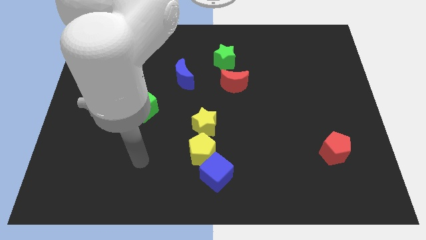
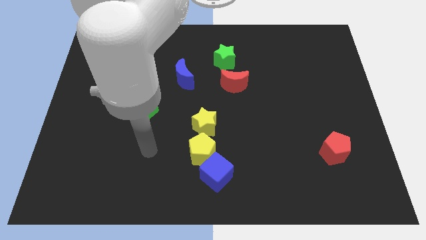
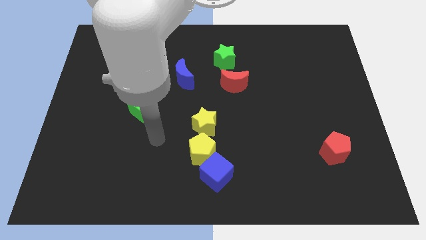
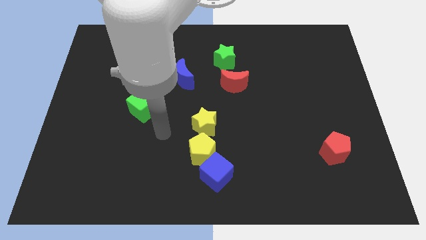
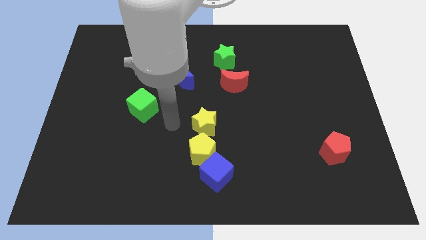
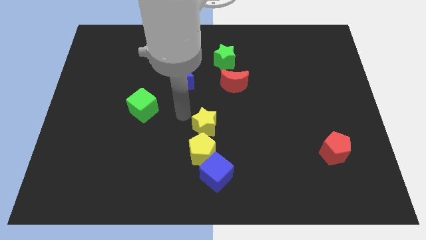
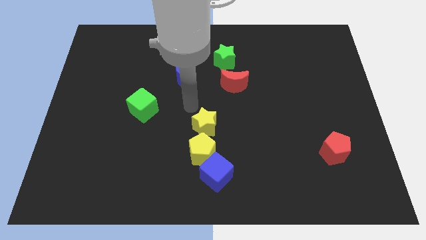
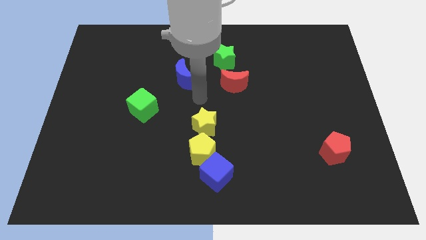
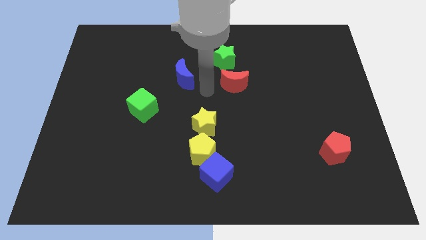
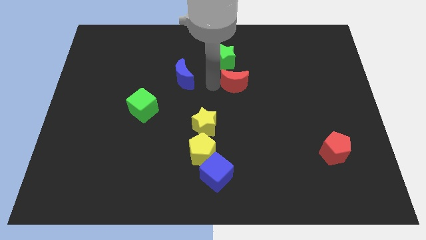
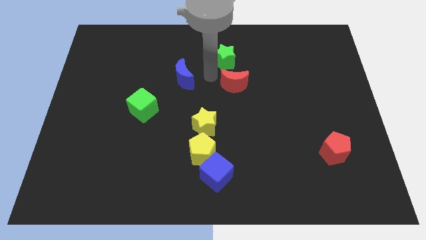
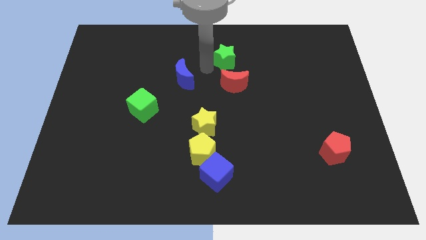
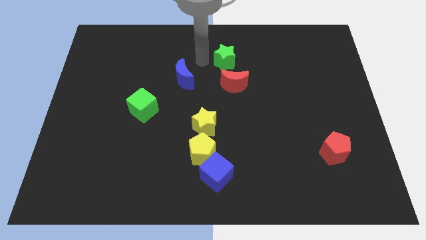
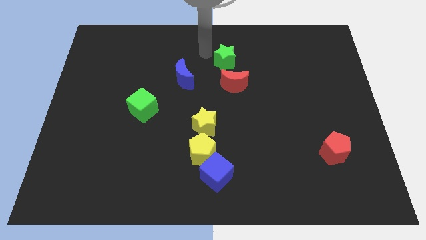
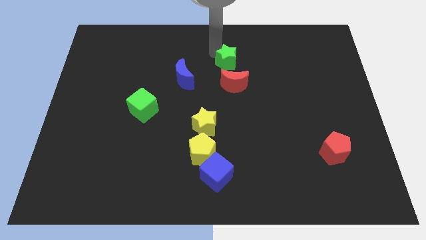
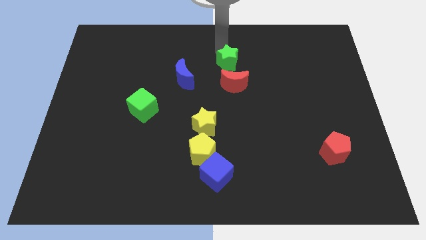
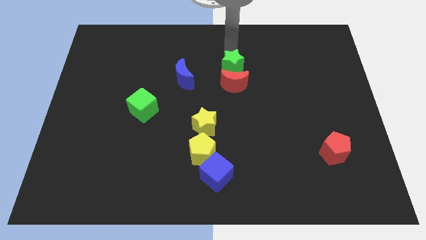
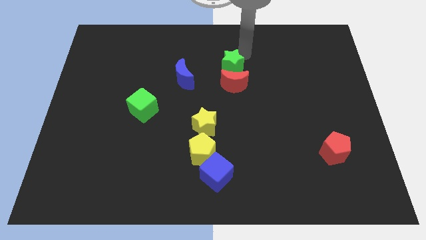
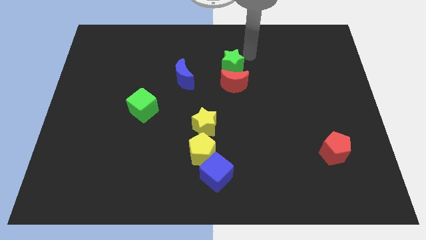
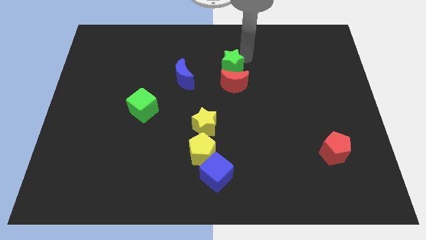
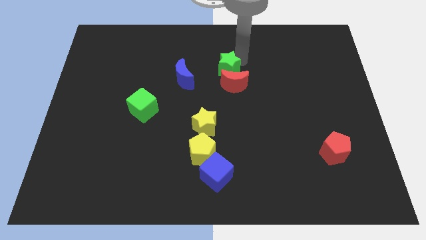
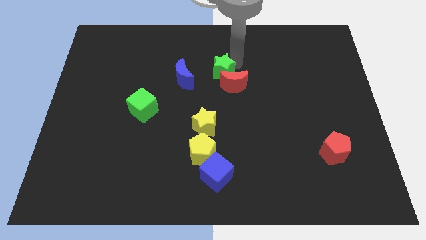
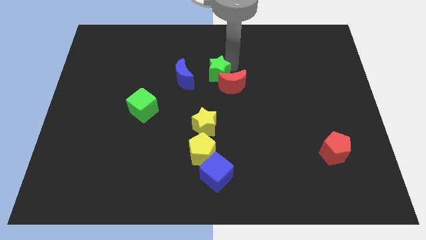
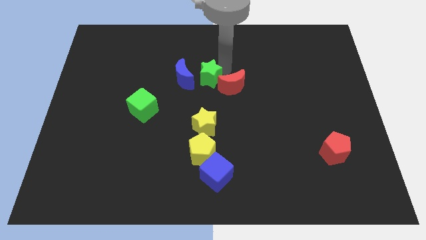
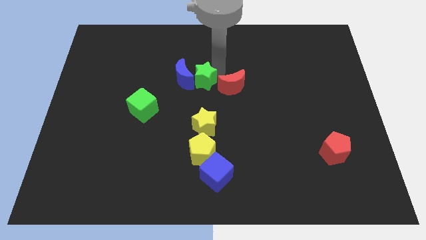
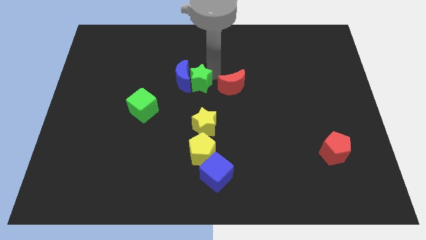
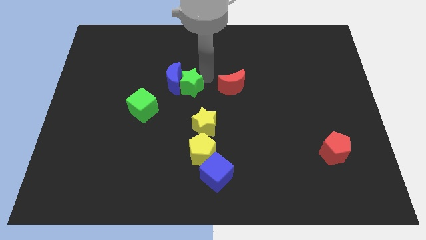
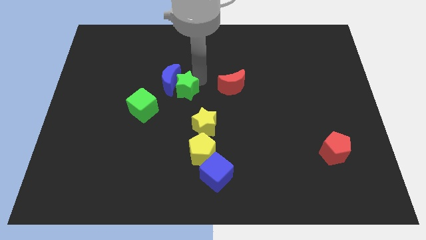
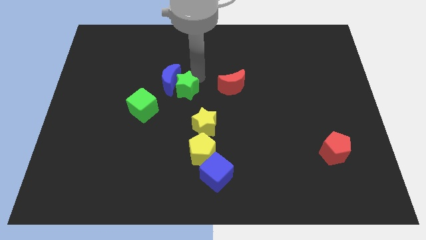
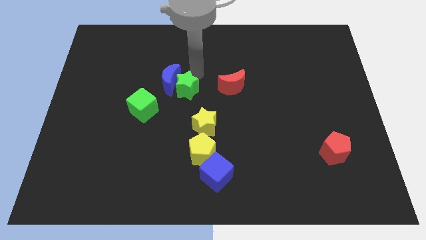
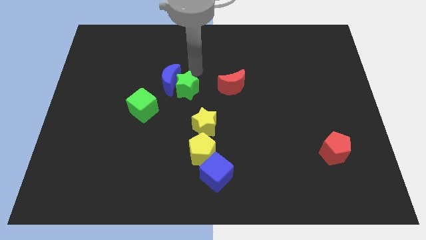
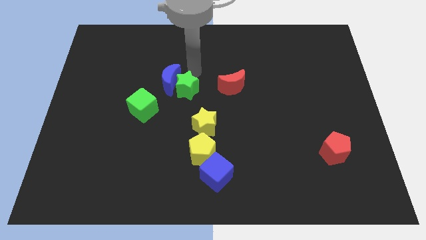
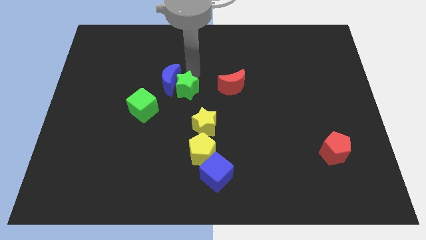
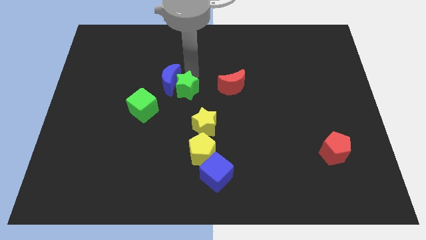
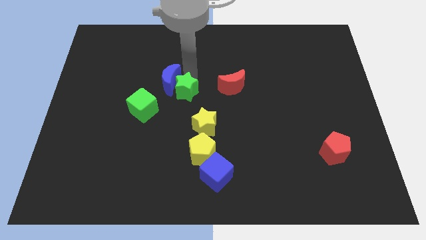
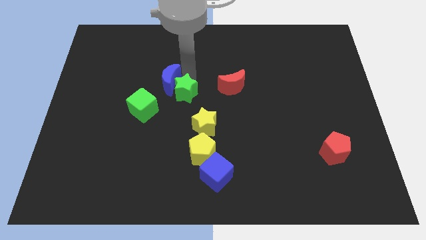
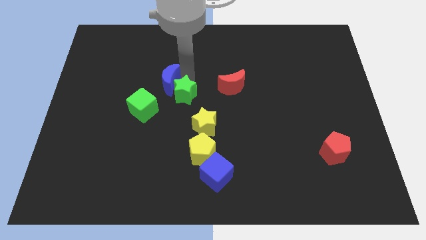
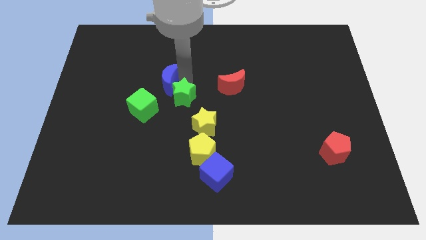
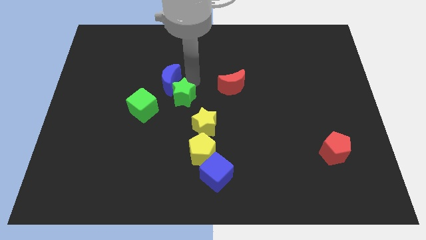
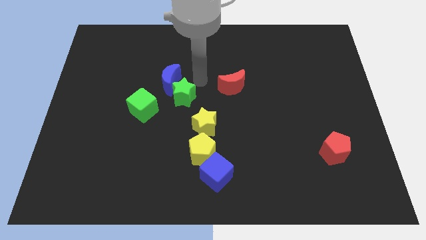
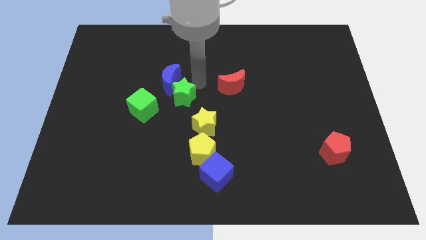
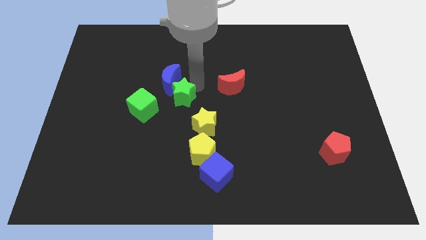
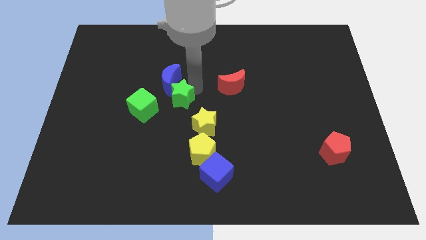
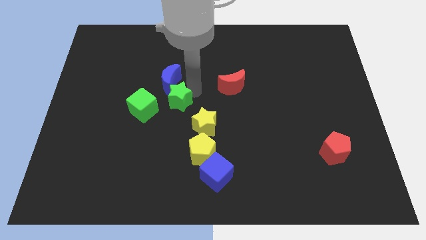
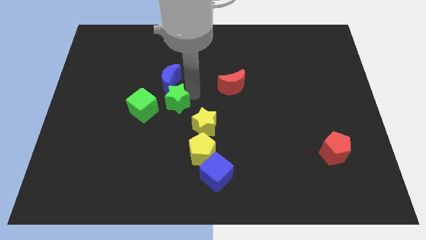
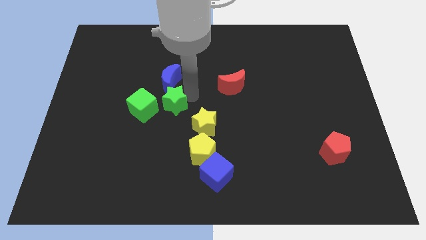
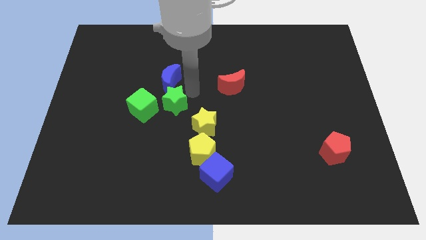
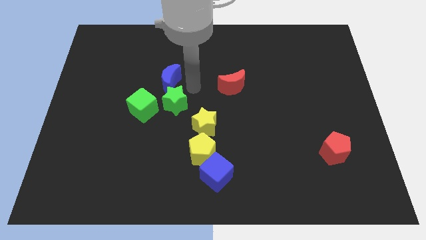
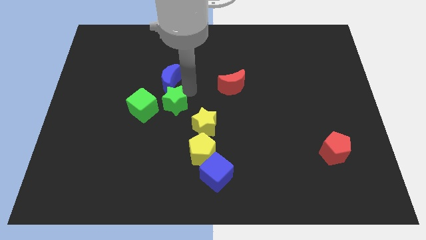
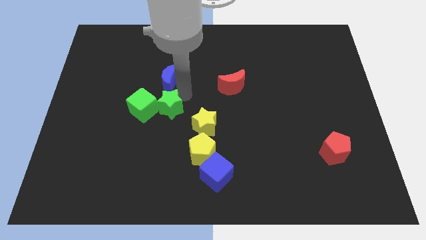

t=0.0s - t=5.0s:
push the green star downwards and to the left diagonally

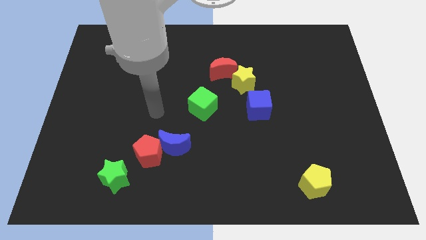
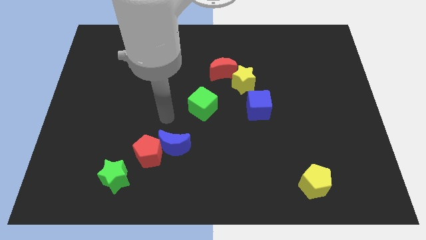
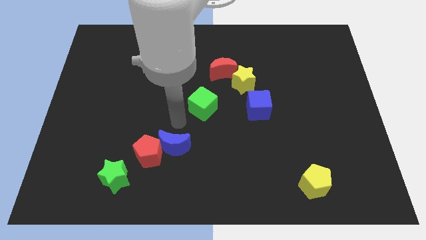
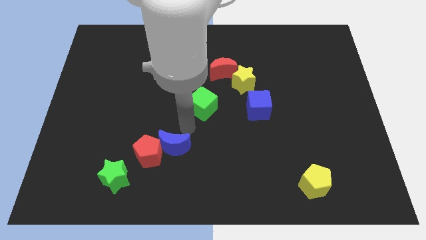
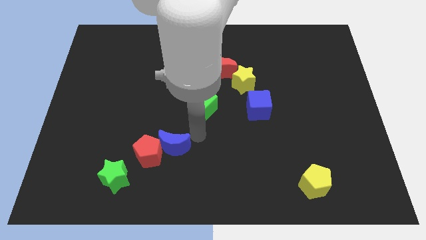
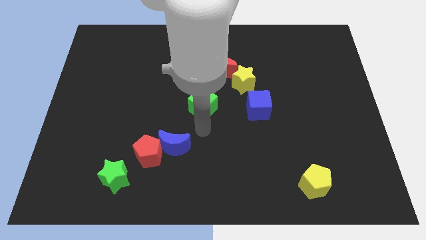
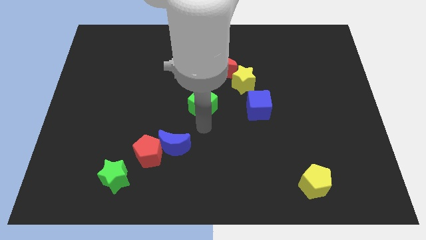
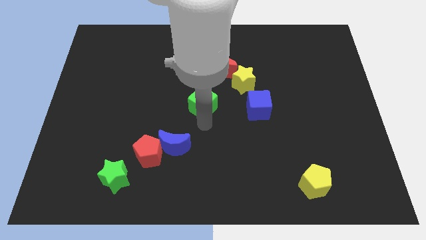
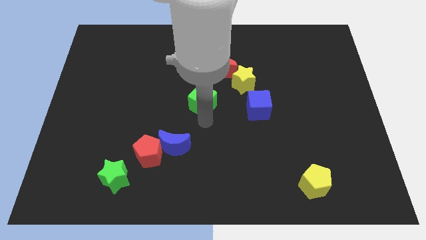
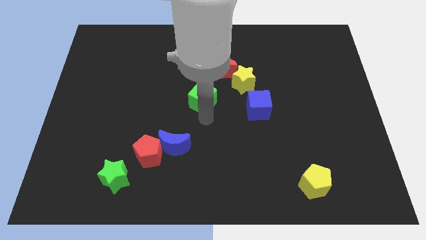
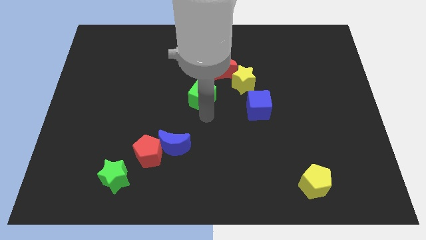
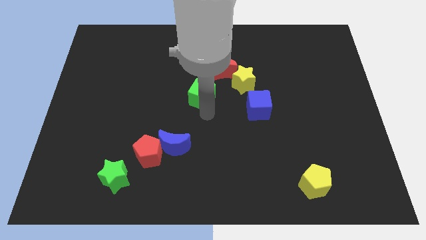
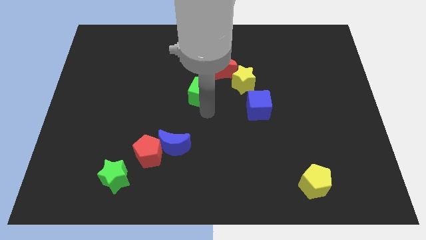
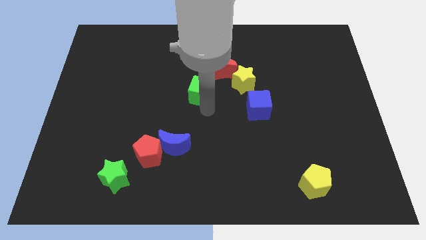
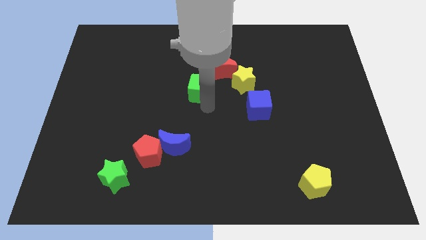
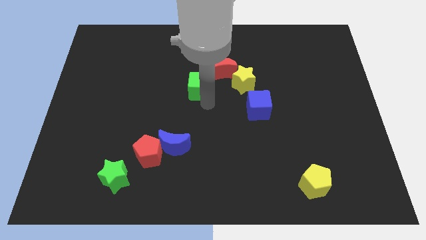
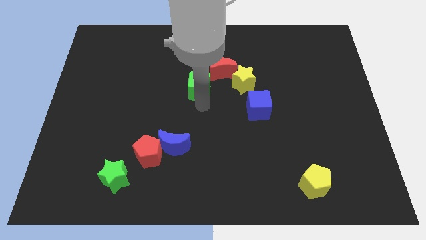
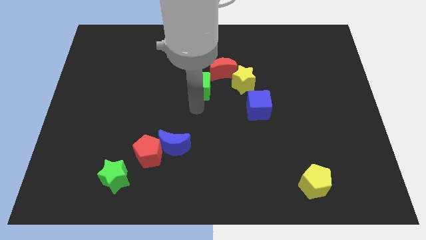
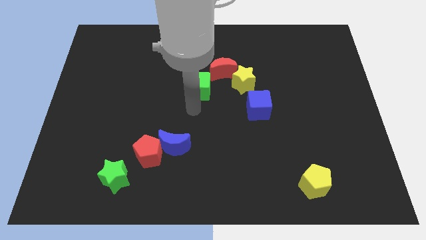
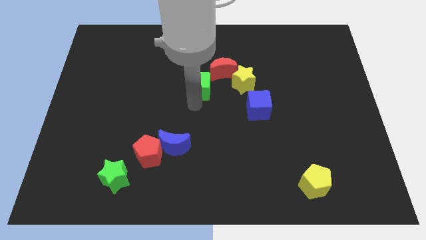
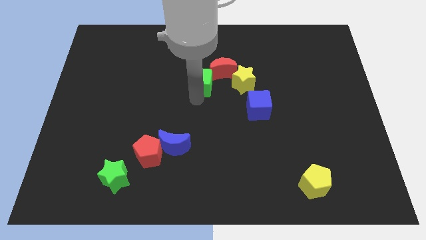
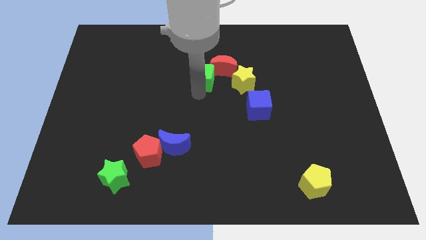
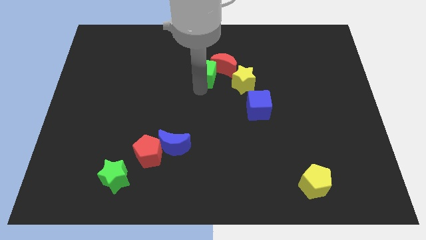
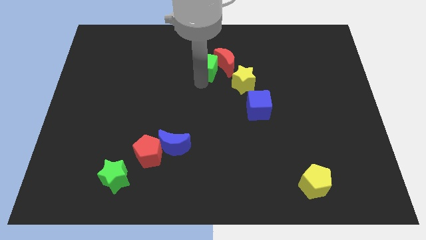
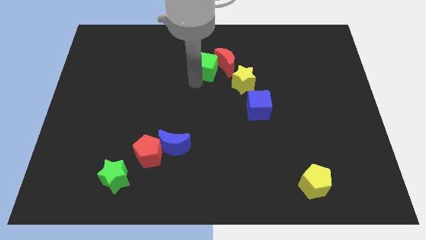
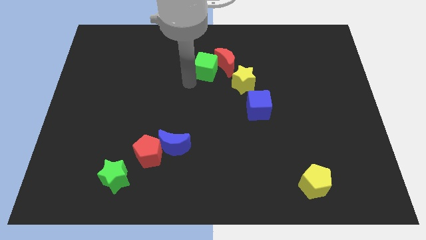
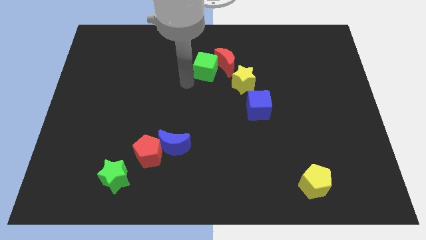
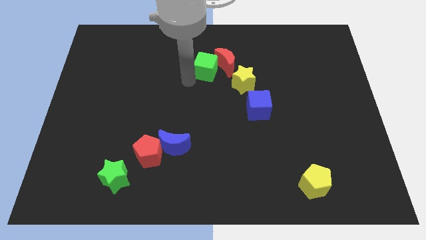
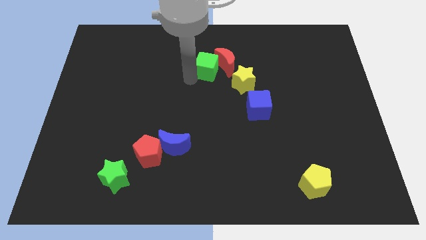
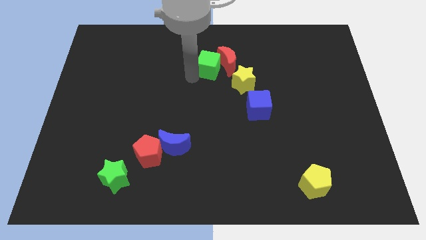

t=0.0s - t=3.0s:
slide the green cube up and right somewhat
